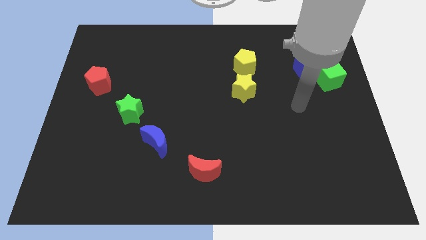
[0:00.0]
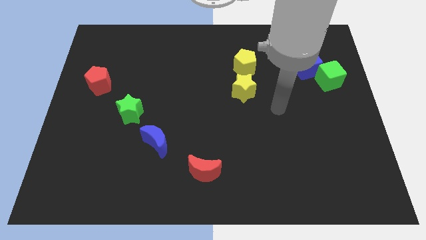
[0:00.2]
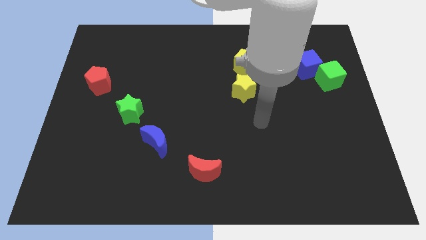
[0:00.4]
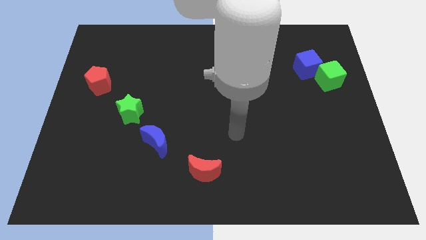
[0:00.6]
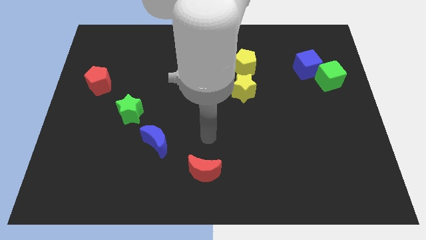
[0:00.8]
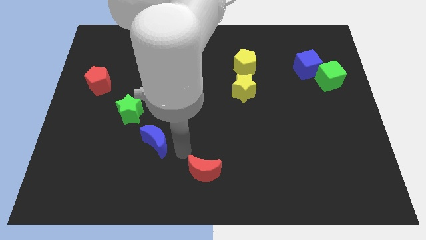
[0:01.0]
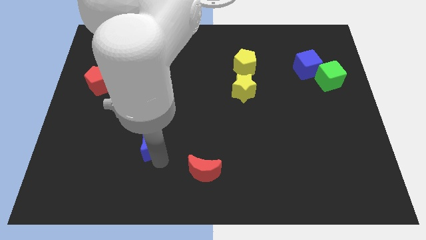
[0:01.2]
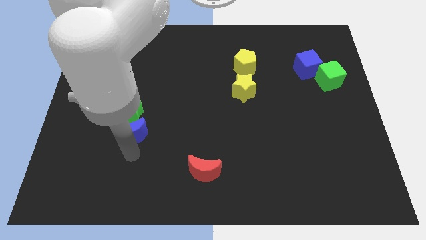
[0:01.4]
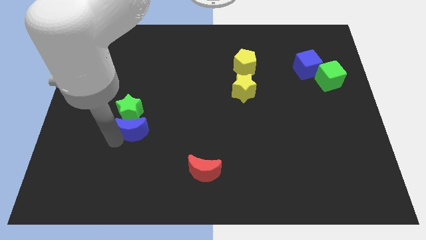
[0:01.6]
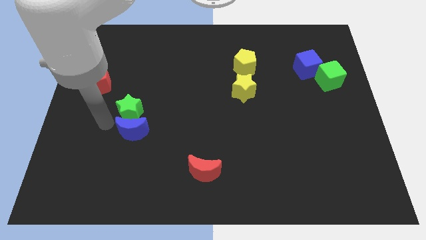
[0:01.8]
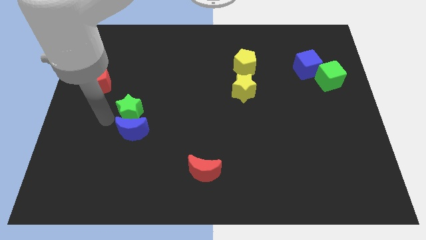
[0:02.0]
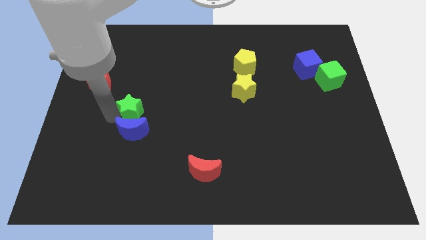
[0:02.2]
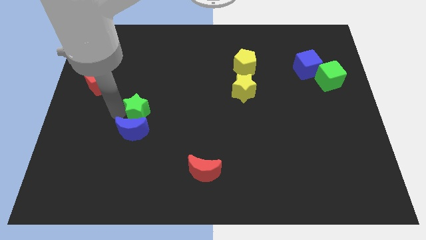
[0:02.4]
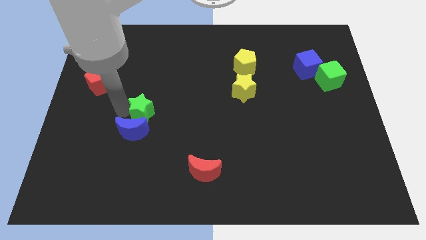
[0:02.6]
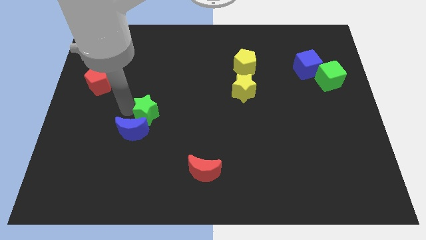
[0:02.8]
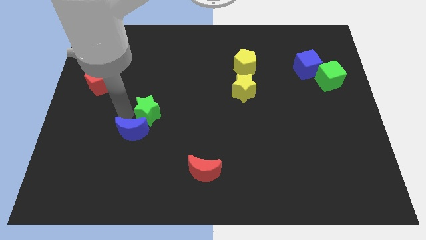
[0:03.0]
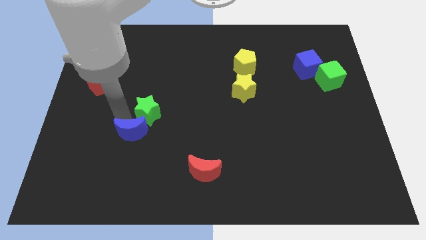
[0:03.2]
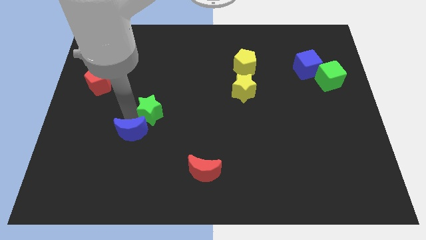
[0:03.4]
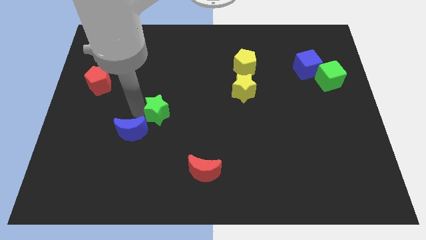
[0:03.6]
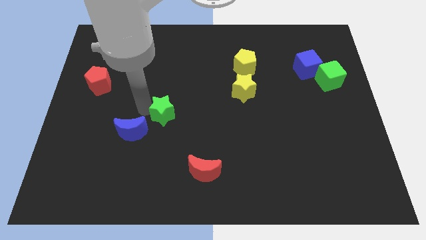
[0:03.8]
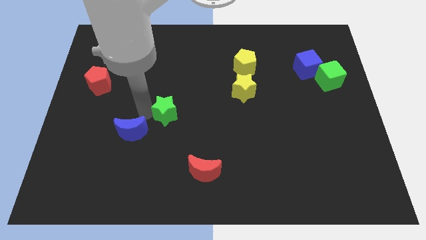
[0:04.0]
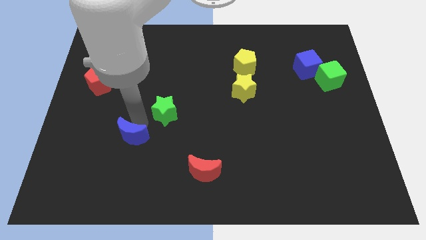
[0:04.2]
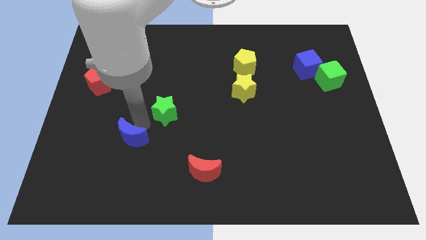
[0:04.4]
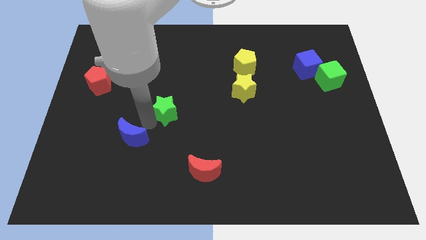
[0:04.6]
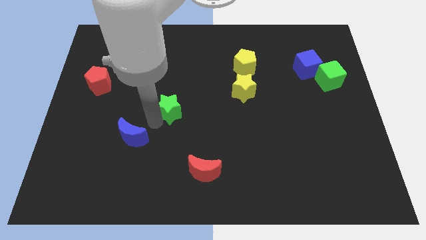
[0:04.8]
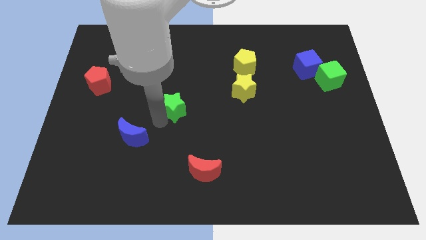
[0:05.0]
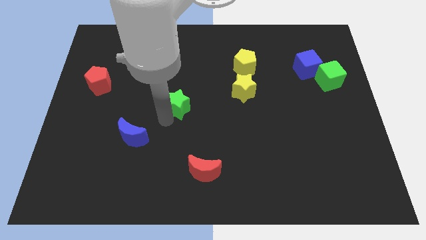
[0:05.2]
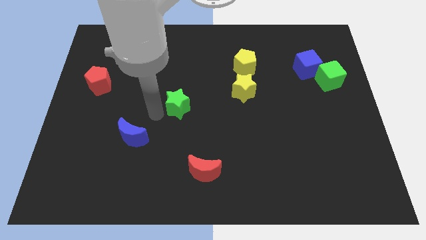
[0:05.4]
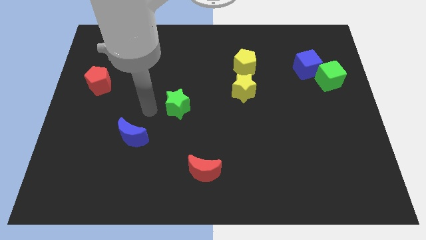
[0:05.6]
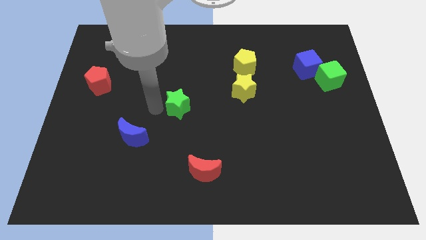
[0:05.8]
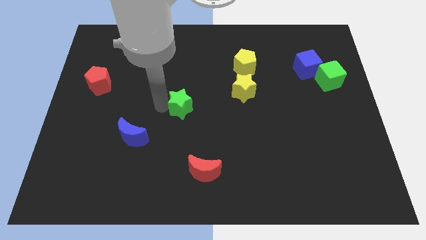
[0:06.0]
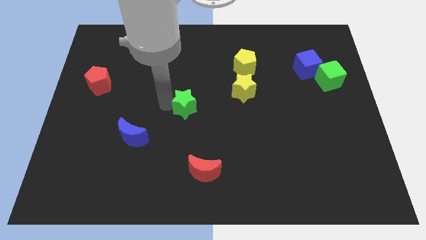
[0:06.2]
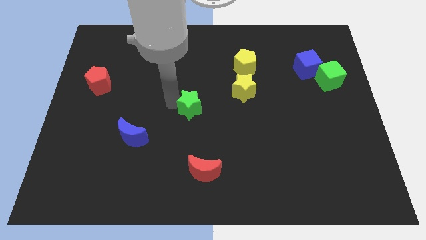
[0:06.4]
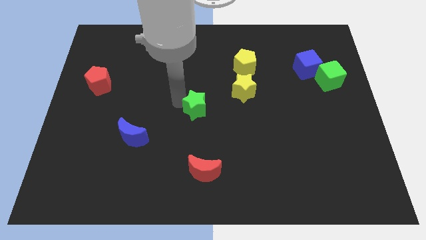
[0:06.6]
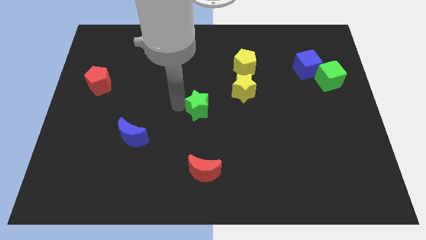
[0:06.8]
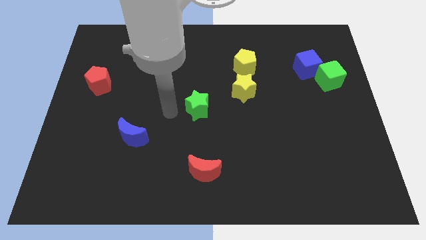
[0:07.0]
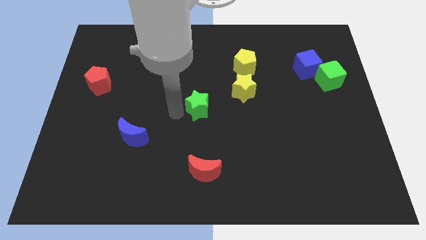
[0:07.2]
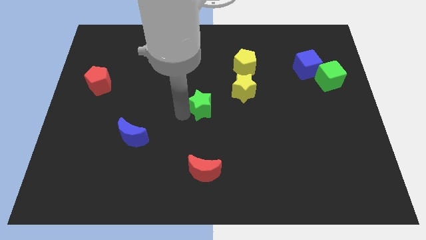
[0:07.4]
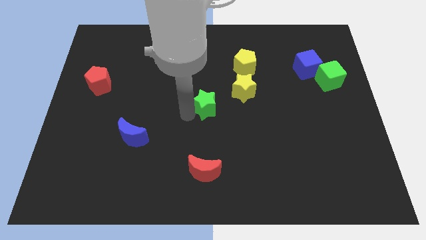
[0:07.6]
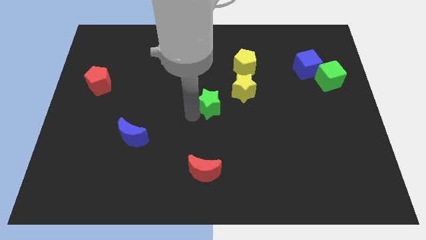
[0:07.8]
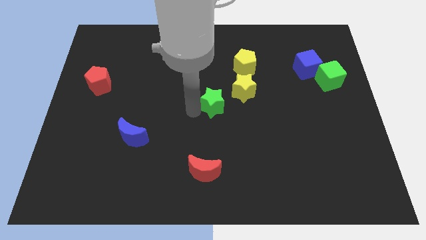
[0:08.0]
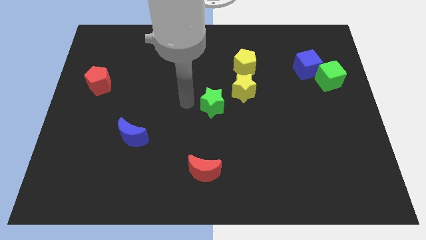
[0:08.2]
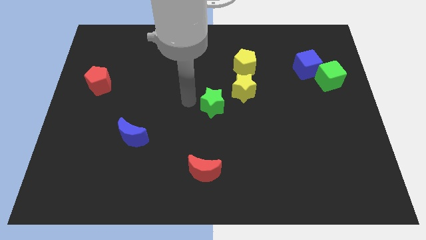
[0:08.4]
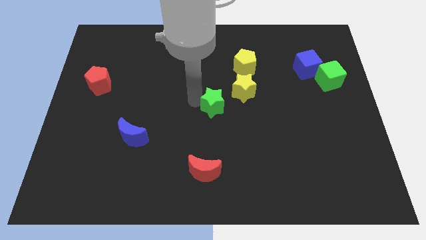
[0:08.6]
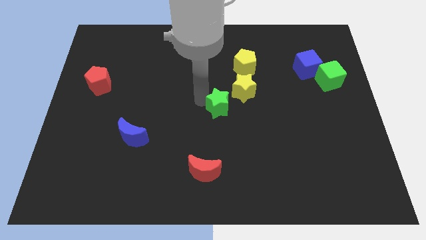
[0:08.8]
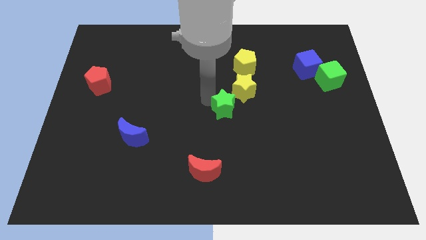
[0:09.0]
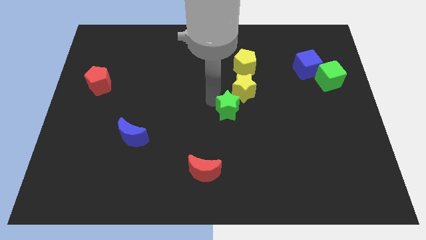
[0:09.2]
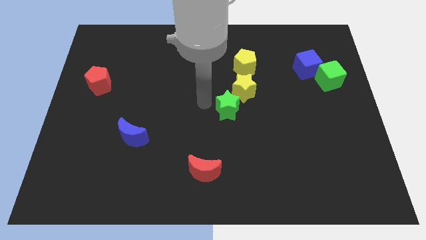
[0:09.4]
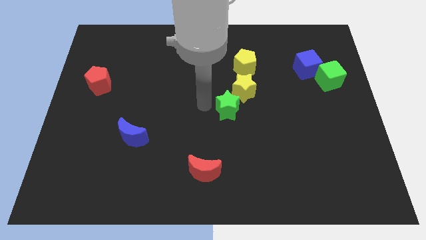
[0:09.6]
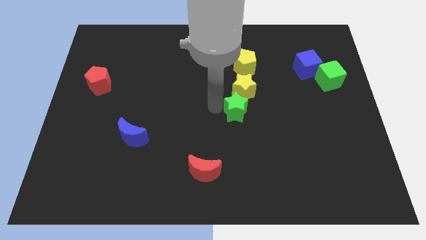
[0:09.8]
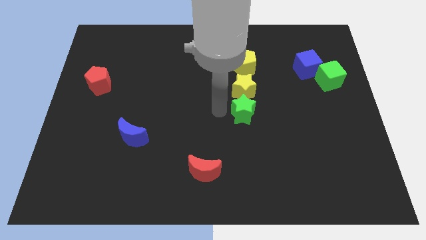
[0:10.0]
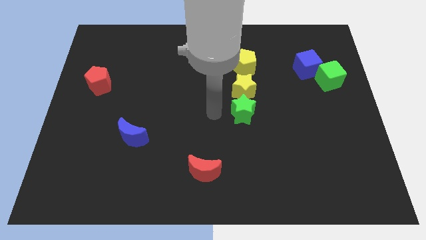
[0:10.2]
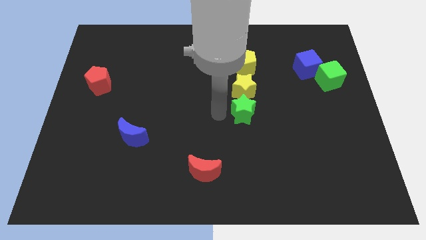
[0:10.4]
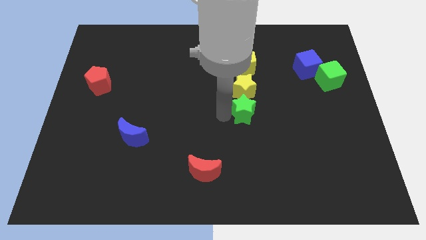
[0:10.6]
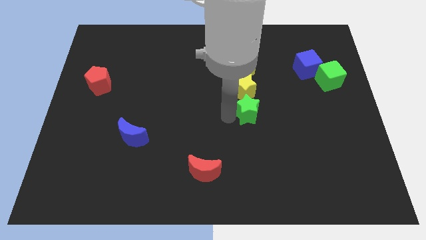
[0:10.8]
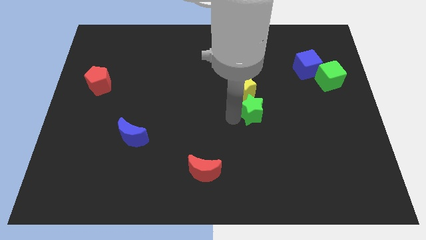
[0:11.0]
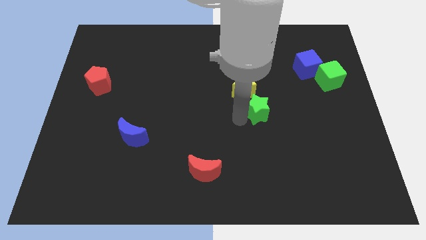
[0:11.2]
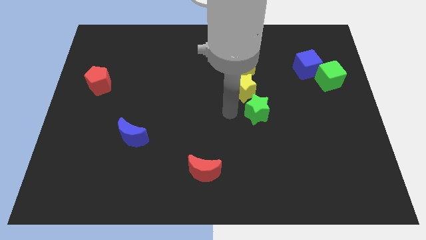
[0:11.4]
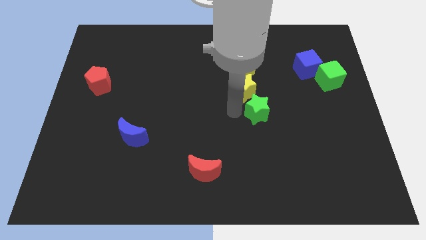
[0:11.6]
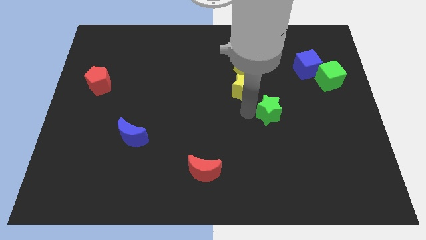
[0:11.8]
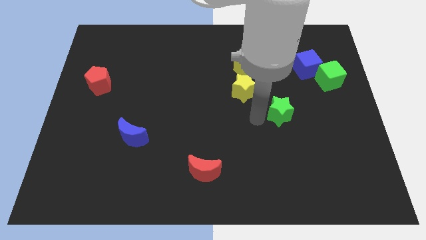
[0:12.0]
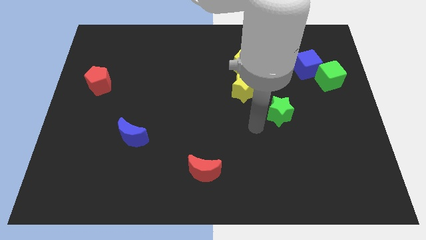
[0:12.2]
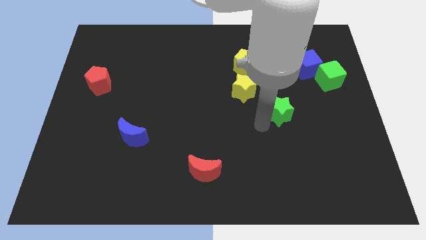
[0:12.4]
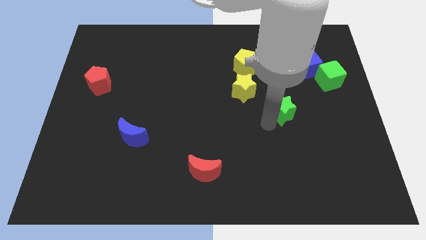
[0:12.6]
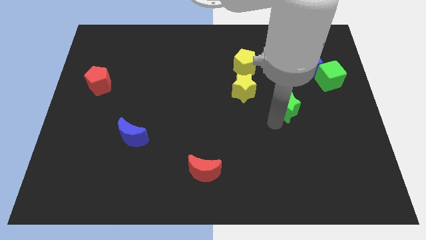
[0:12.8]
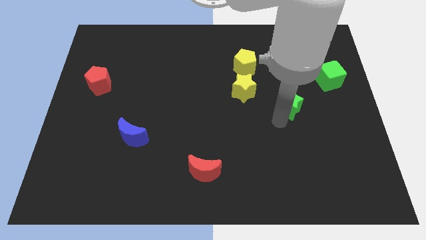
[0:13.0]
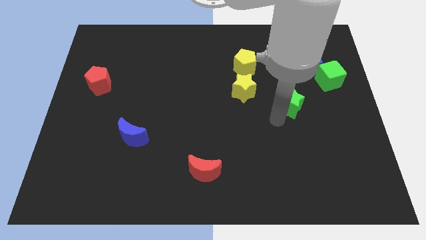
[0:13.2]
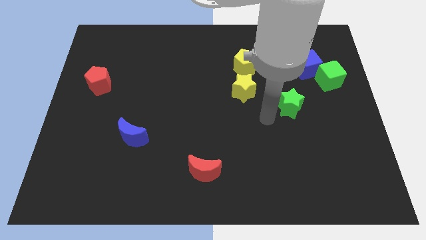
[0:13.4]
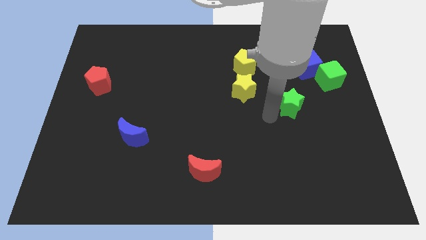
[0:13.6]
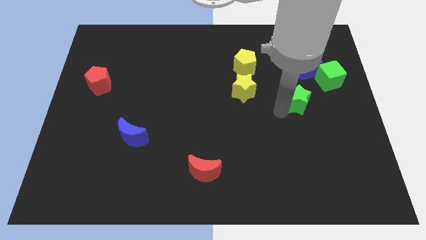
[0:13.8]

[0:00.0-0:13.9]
move the green star to the bottom left side of the green cube

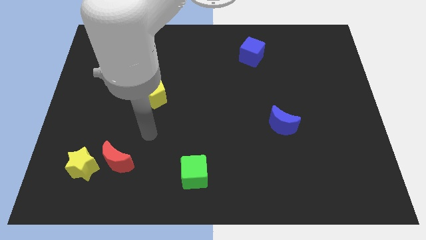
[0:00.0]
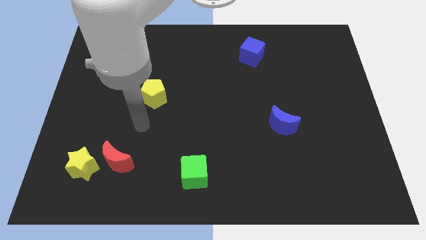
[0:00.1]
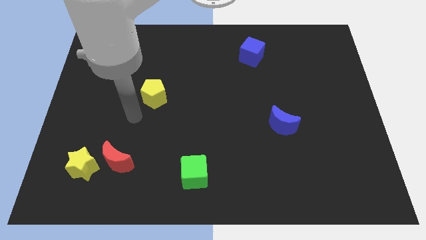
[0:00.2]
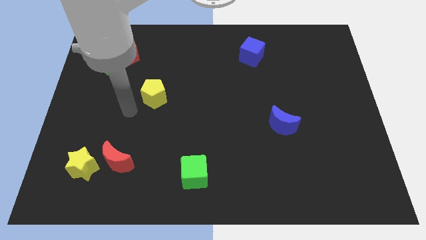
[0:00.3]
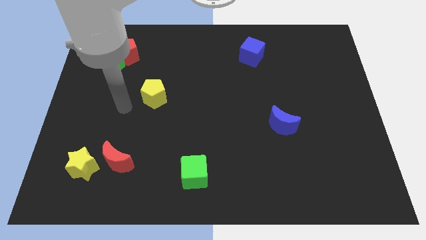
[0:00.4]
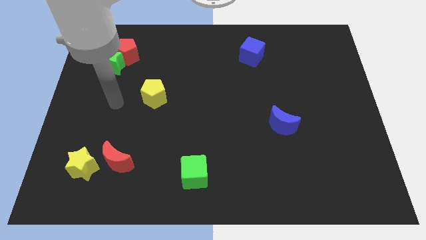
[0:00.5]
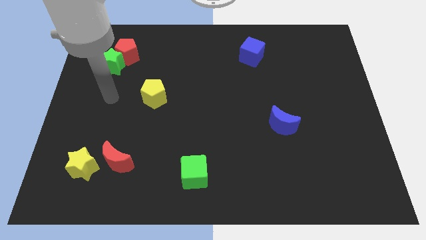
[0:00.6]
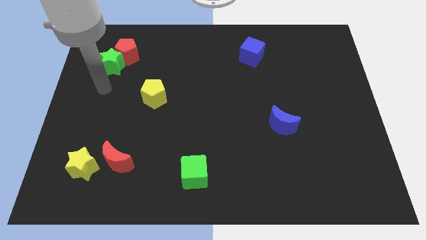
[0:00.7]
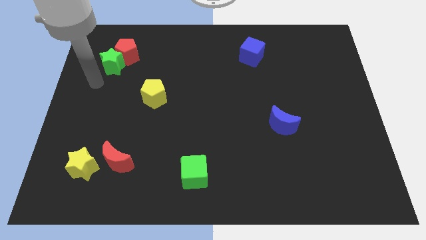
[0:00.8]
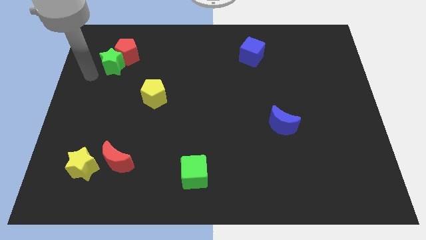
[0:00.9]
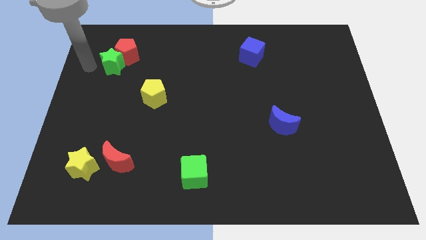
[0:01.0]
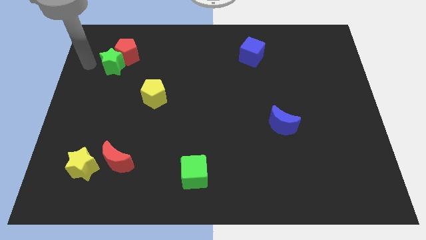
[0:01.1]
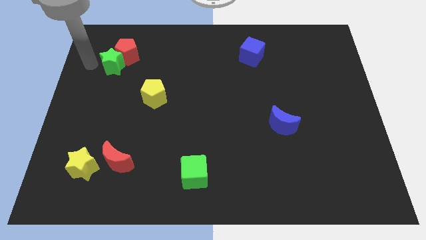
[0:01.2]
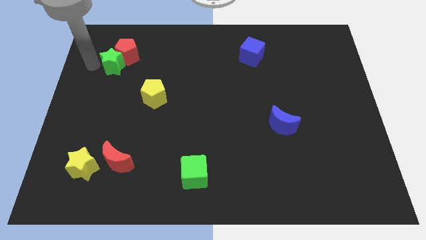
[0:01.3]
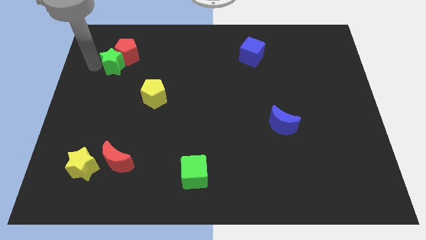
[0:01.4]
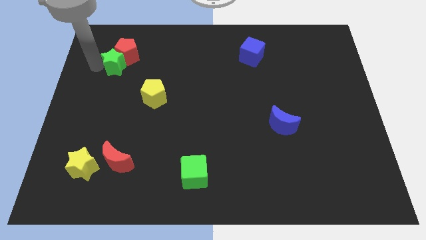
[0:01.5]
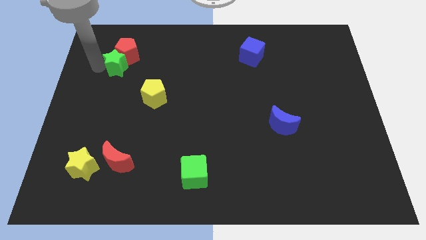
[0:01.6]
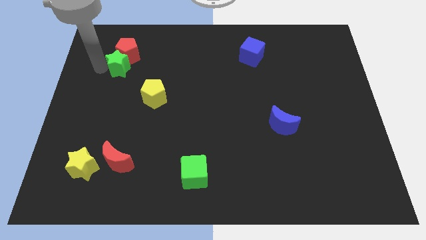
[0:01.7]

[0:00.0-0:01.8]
push the green star to the bottom right side of the red pentagon
